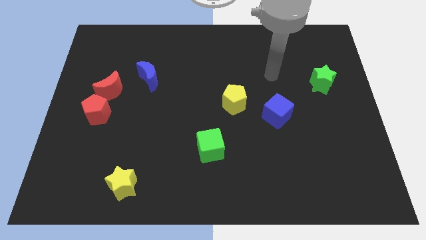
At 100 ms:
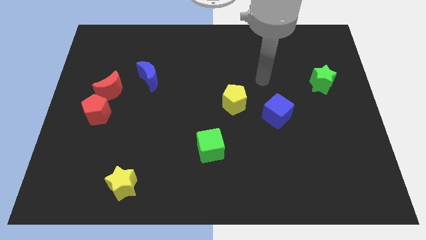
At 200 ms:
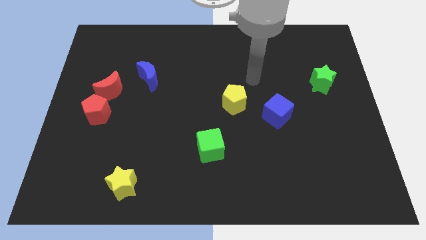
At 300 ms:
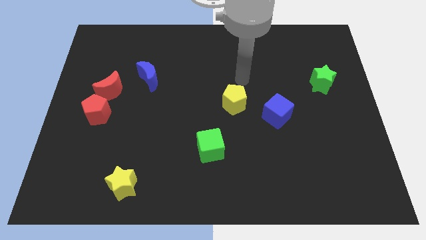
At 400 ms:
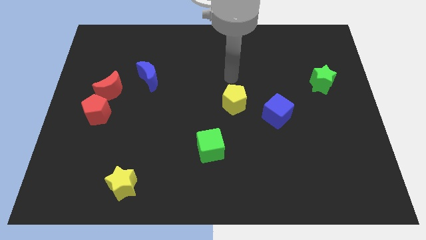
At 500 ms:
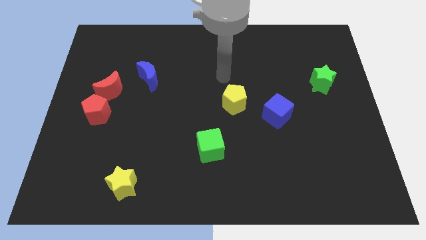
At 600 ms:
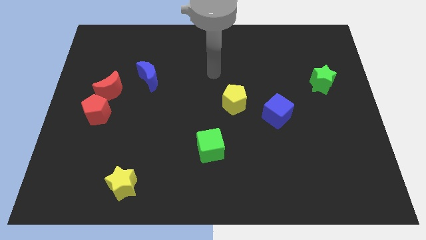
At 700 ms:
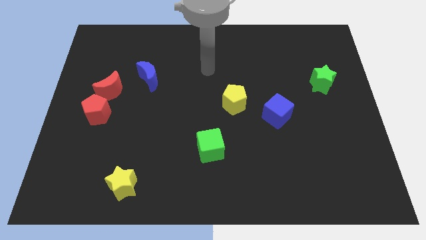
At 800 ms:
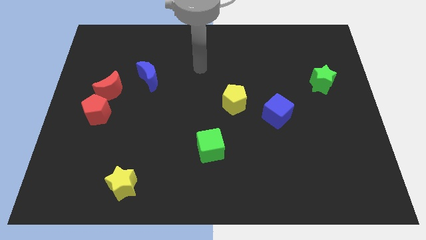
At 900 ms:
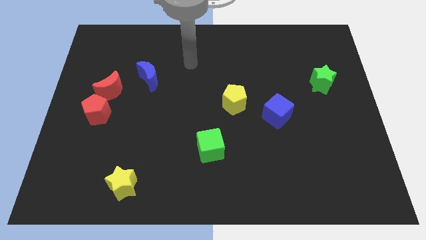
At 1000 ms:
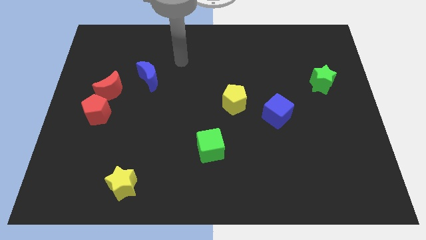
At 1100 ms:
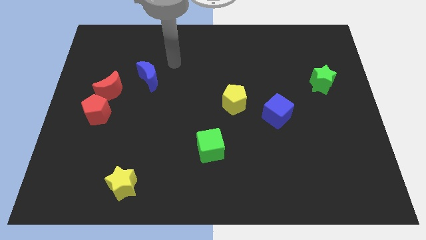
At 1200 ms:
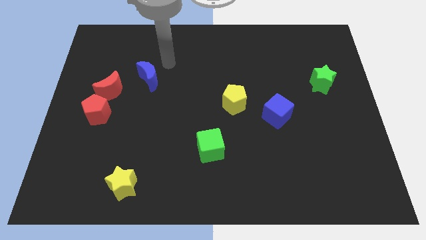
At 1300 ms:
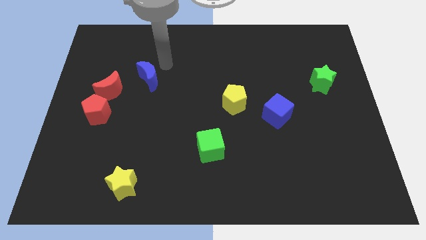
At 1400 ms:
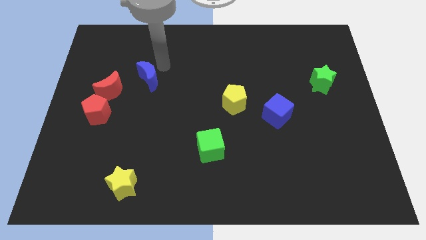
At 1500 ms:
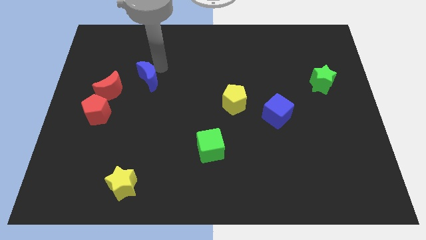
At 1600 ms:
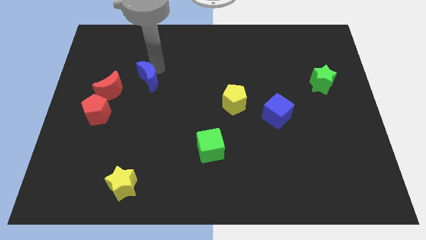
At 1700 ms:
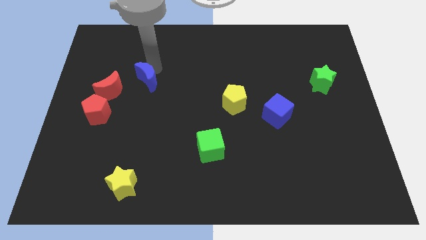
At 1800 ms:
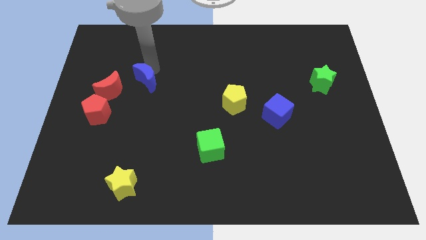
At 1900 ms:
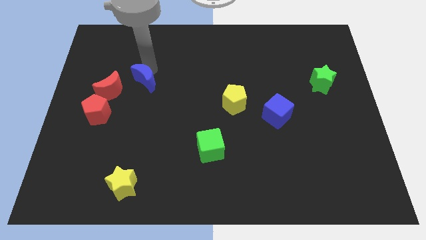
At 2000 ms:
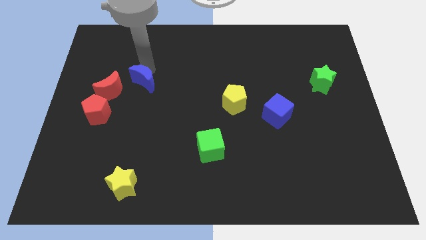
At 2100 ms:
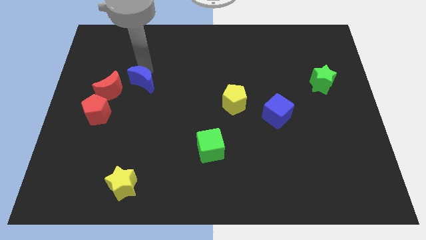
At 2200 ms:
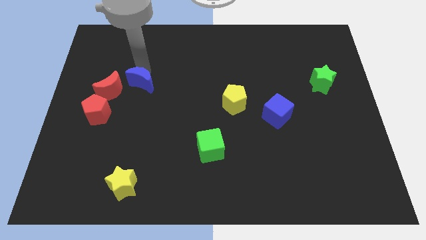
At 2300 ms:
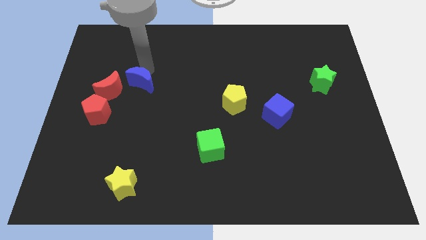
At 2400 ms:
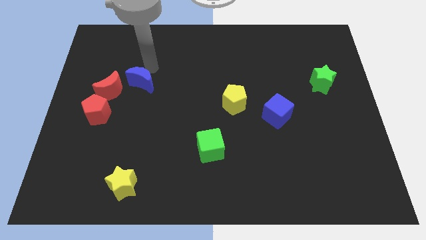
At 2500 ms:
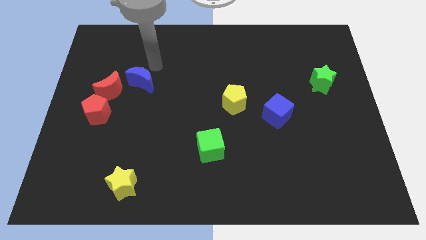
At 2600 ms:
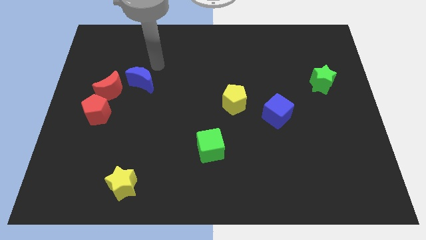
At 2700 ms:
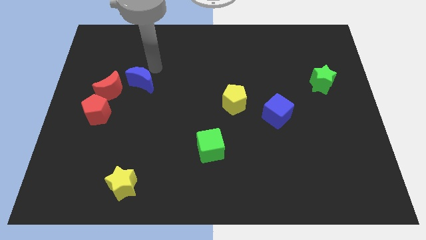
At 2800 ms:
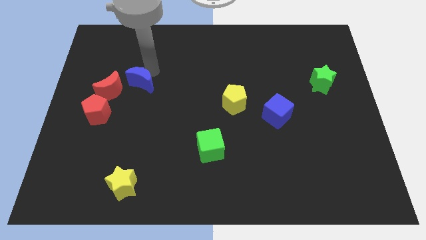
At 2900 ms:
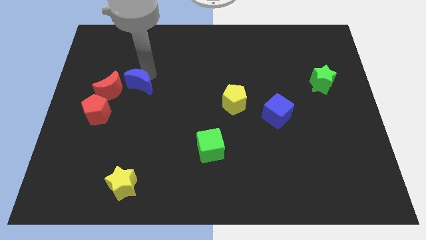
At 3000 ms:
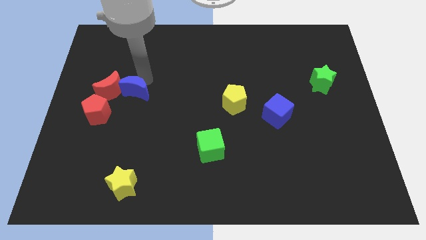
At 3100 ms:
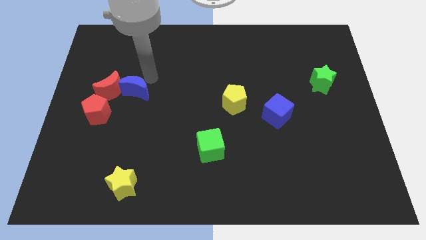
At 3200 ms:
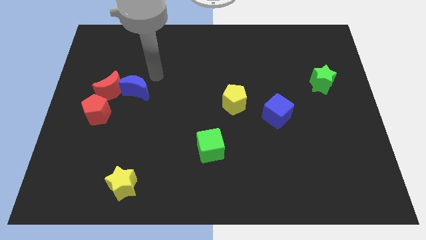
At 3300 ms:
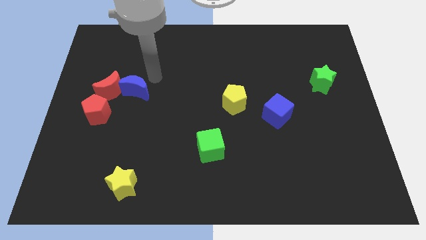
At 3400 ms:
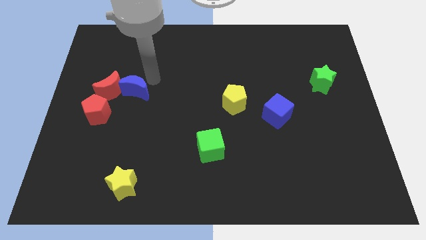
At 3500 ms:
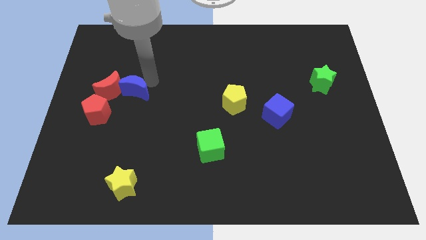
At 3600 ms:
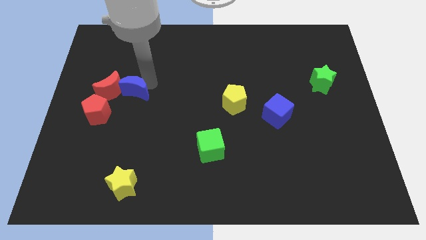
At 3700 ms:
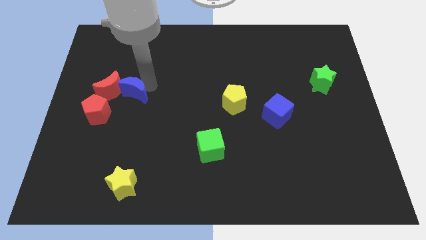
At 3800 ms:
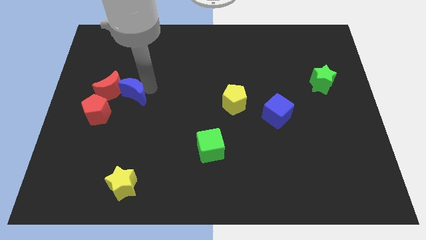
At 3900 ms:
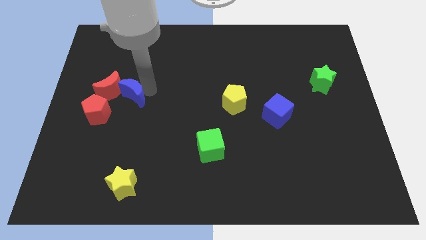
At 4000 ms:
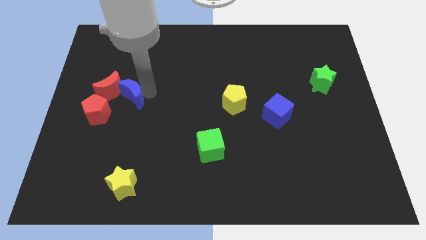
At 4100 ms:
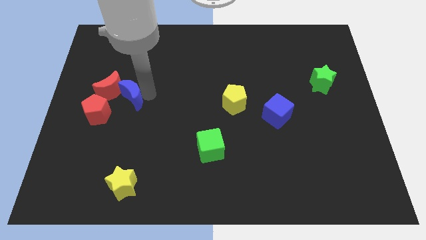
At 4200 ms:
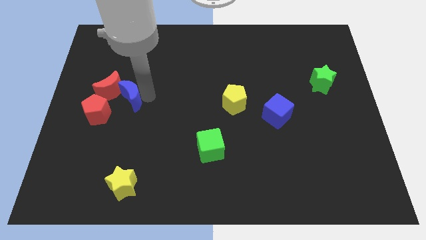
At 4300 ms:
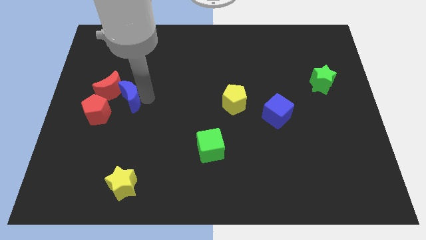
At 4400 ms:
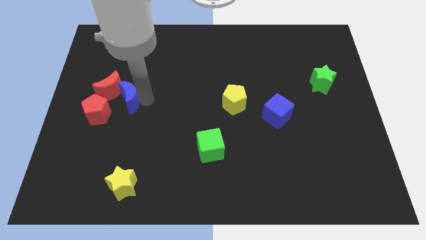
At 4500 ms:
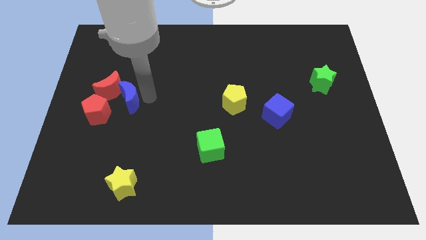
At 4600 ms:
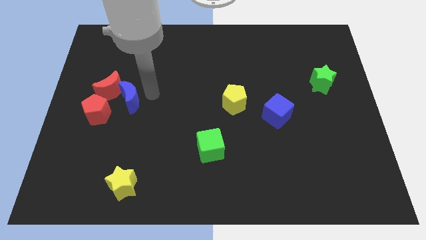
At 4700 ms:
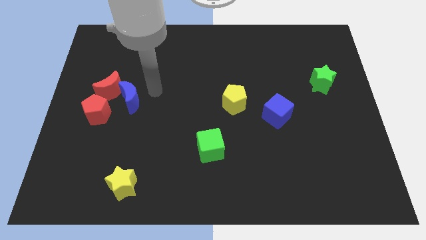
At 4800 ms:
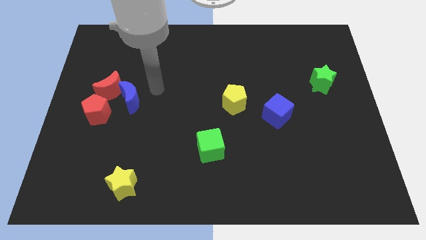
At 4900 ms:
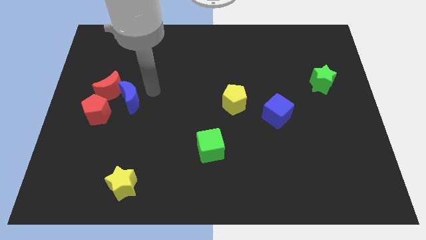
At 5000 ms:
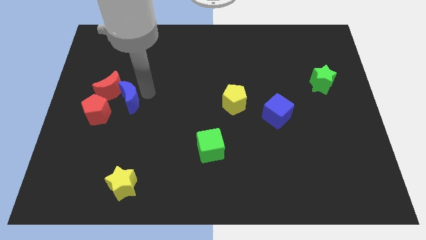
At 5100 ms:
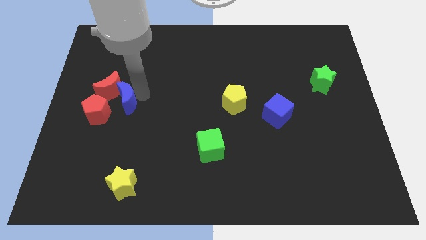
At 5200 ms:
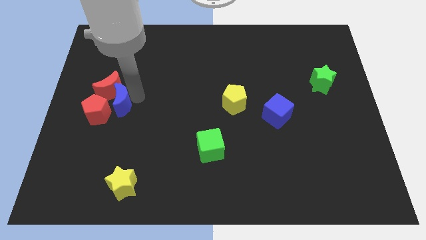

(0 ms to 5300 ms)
put the blue moon next to the red pentagon

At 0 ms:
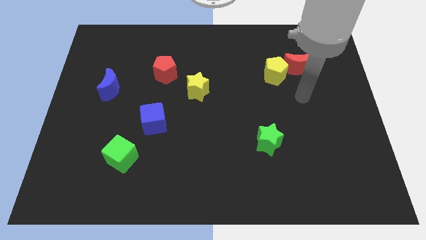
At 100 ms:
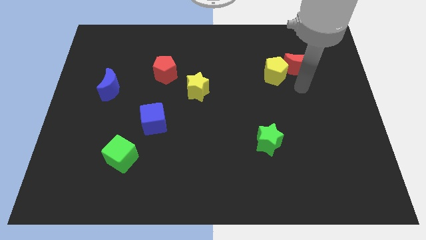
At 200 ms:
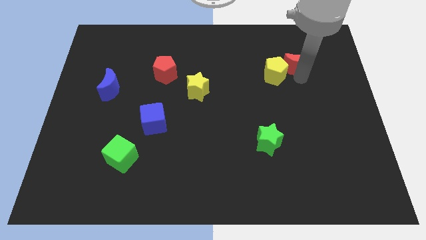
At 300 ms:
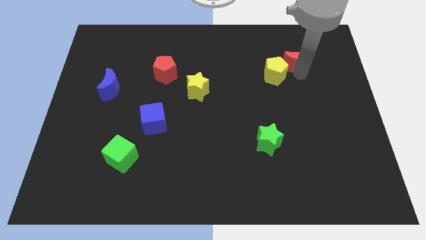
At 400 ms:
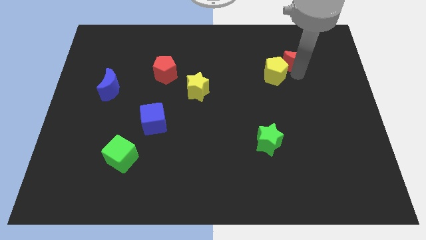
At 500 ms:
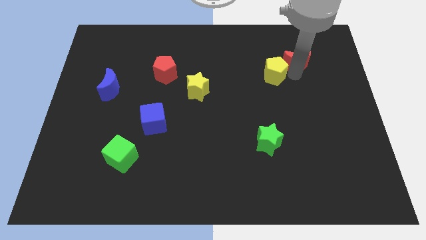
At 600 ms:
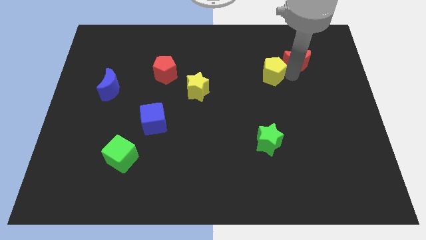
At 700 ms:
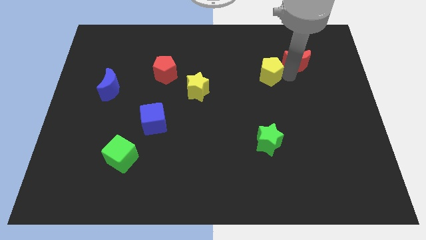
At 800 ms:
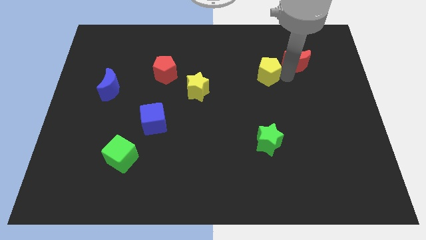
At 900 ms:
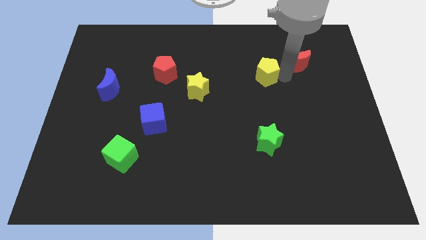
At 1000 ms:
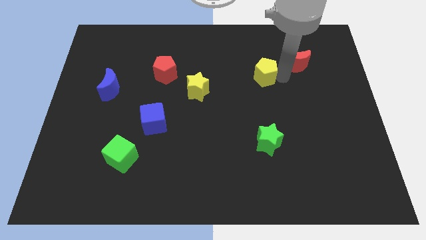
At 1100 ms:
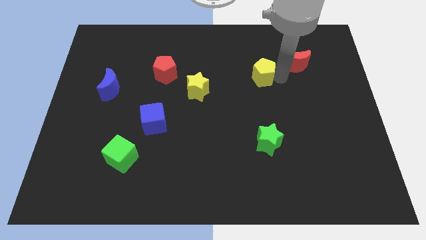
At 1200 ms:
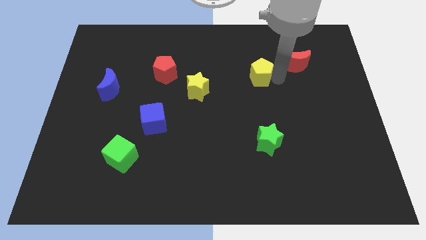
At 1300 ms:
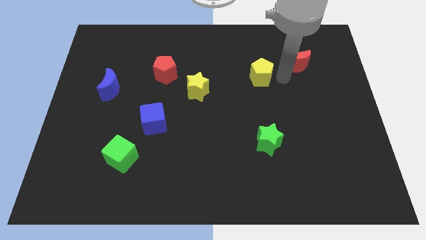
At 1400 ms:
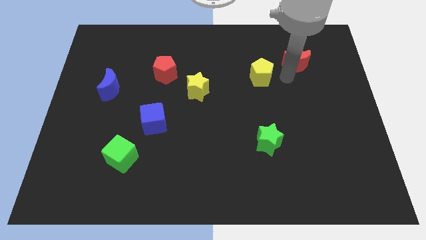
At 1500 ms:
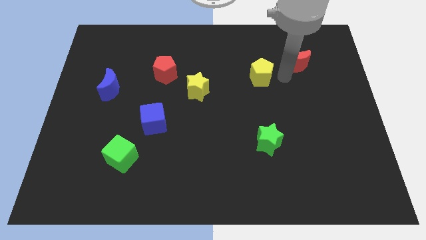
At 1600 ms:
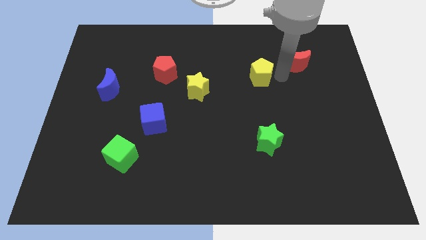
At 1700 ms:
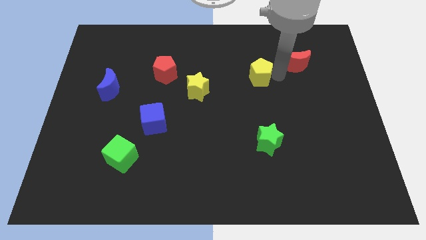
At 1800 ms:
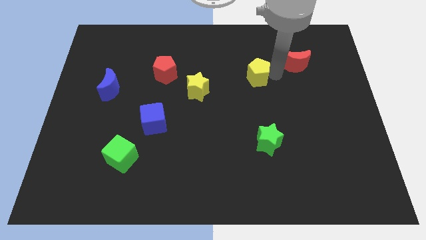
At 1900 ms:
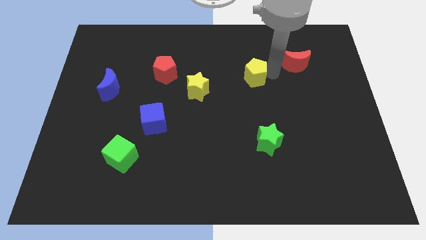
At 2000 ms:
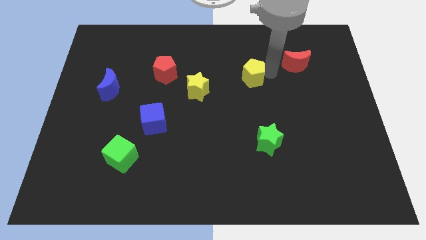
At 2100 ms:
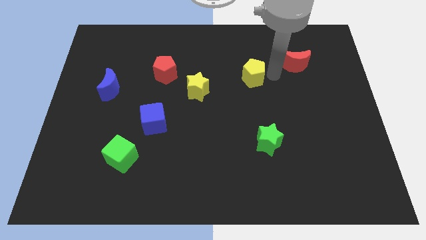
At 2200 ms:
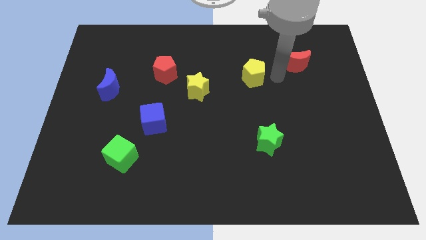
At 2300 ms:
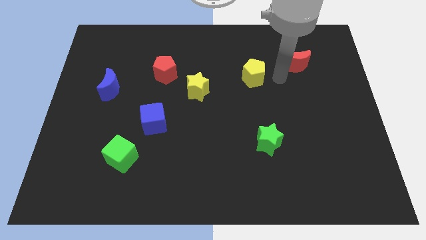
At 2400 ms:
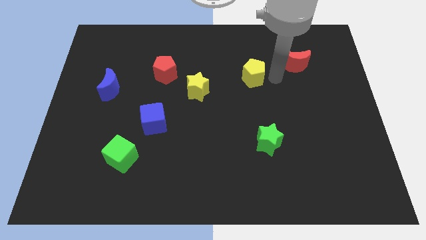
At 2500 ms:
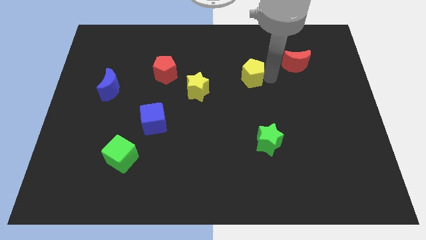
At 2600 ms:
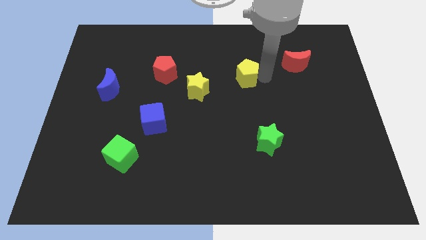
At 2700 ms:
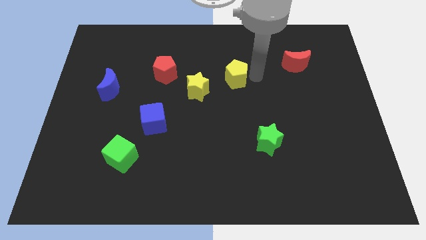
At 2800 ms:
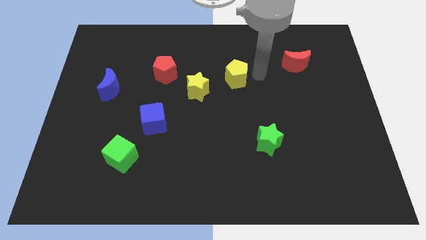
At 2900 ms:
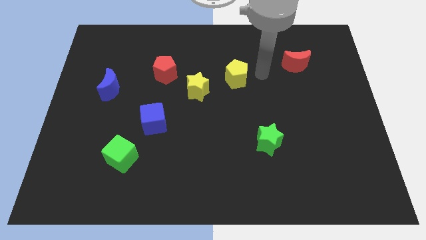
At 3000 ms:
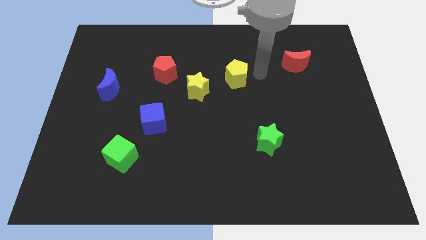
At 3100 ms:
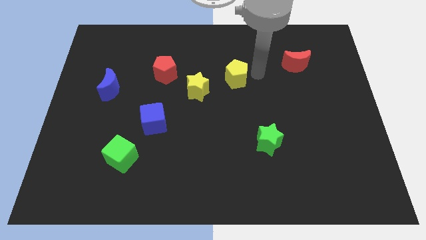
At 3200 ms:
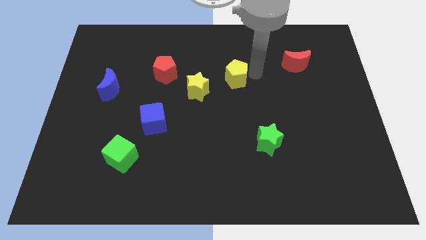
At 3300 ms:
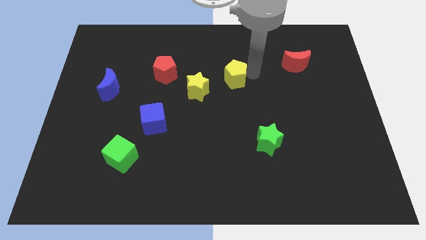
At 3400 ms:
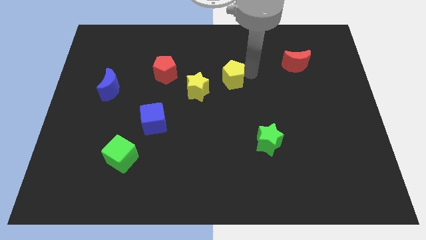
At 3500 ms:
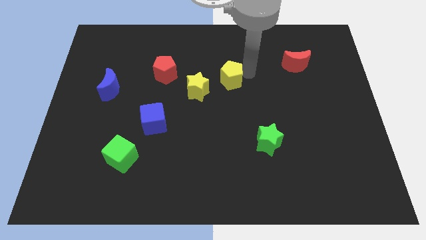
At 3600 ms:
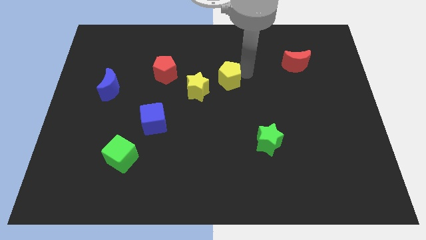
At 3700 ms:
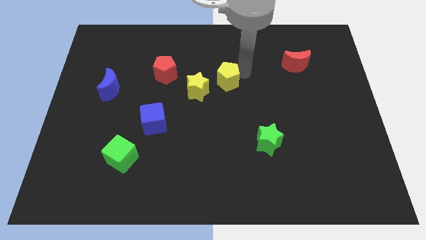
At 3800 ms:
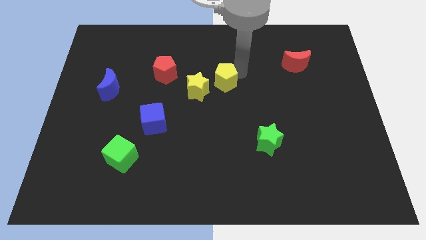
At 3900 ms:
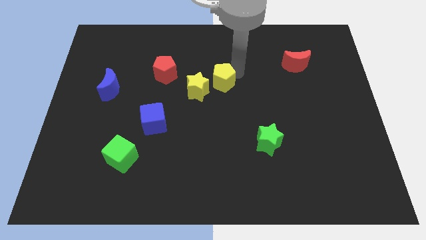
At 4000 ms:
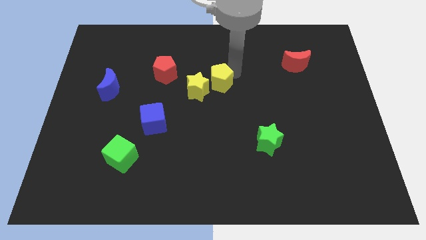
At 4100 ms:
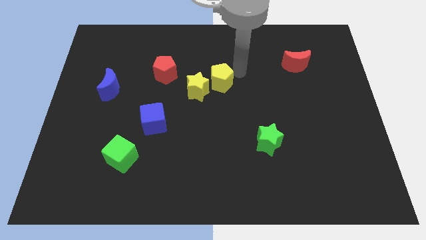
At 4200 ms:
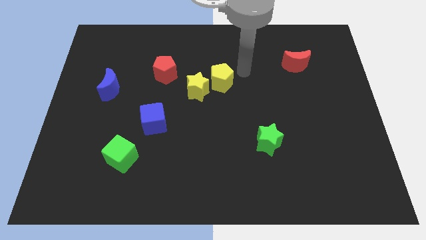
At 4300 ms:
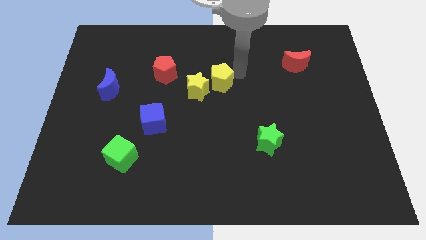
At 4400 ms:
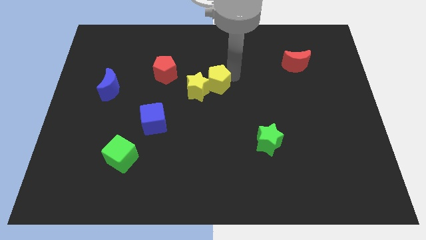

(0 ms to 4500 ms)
move the yellow pentagon next to the yellow star
